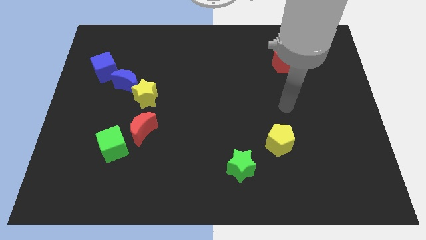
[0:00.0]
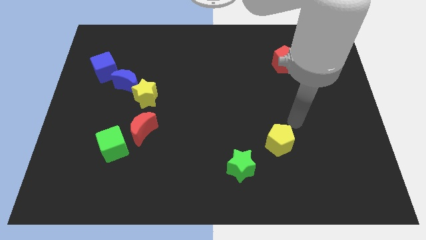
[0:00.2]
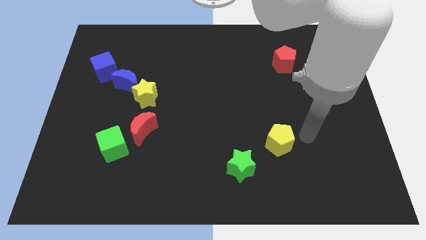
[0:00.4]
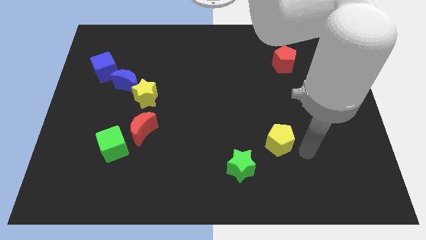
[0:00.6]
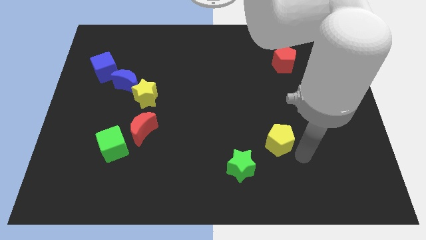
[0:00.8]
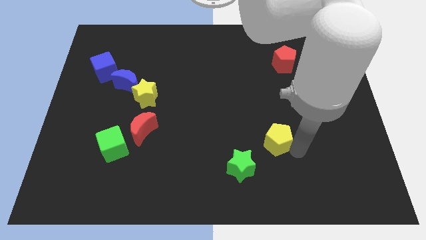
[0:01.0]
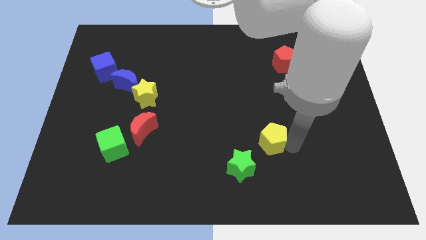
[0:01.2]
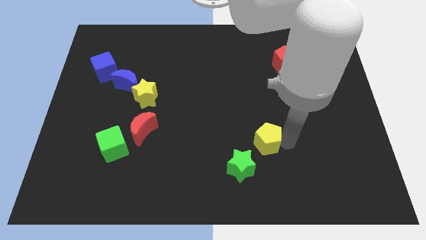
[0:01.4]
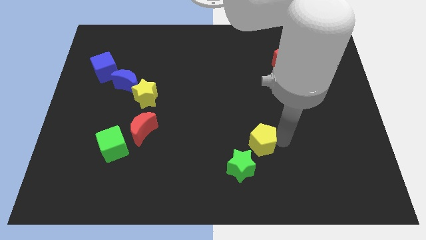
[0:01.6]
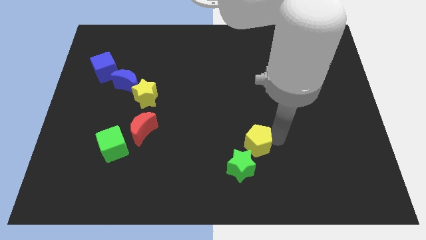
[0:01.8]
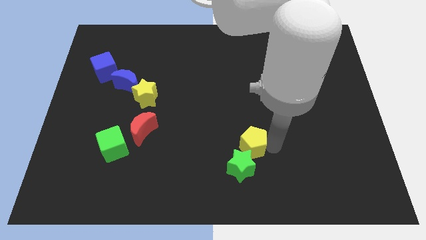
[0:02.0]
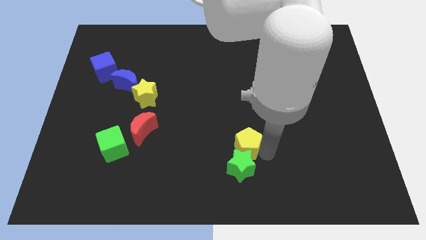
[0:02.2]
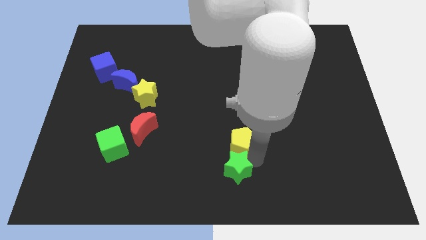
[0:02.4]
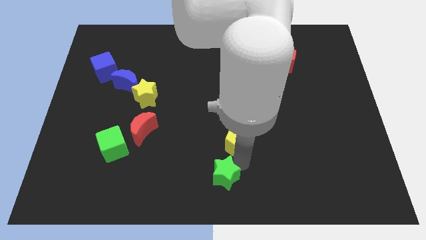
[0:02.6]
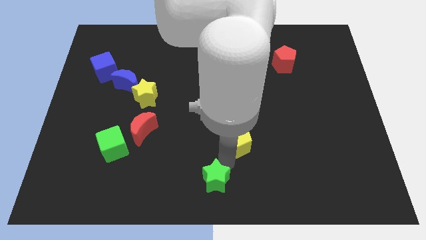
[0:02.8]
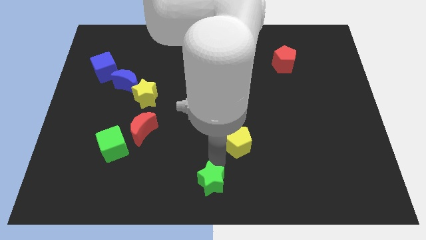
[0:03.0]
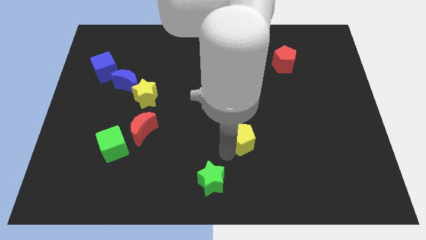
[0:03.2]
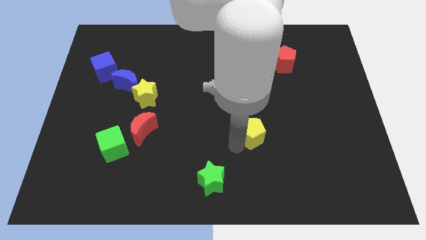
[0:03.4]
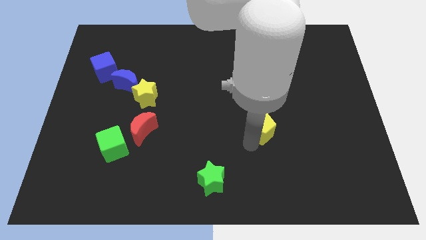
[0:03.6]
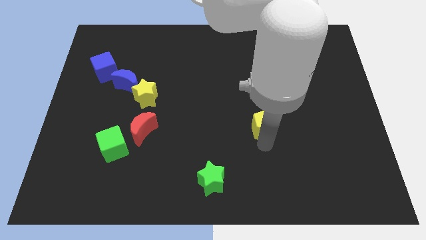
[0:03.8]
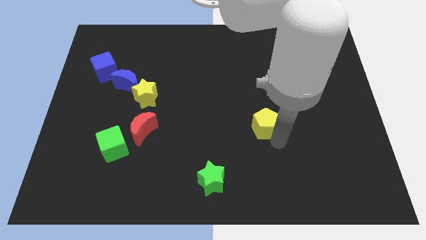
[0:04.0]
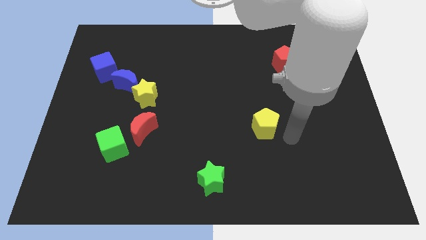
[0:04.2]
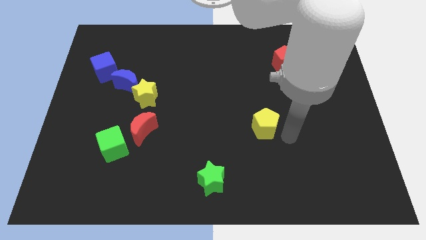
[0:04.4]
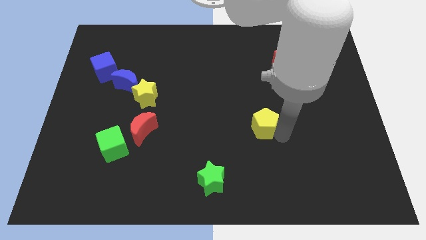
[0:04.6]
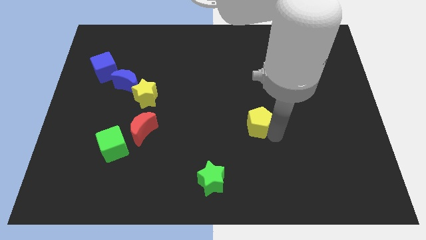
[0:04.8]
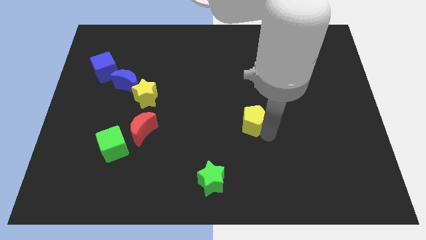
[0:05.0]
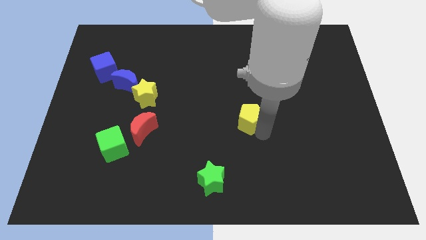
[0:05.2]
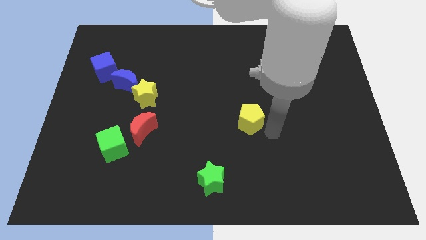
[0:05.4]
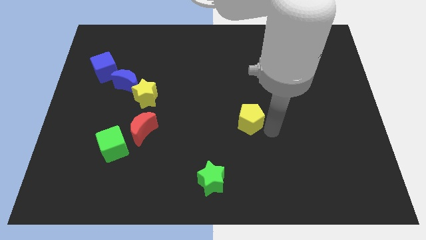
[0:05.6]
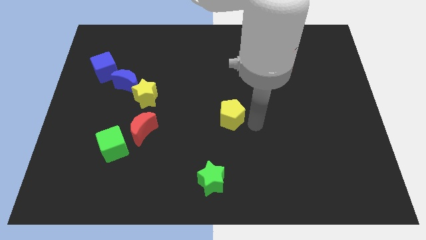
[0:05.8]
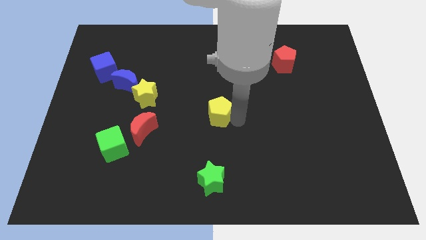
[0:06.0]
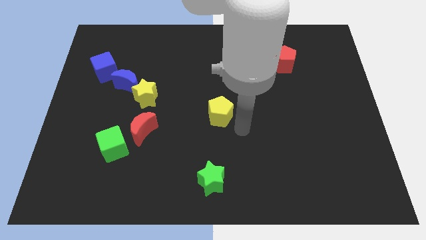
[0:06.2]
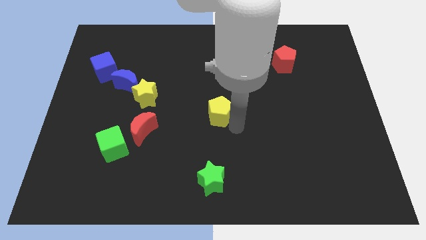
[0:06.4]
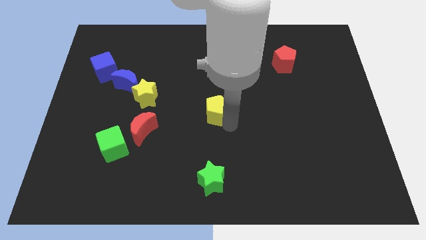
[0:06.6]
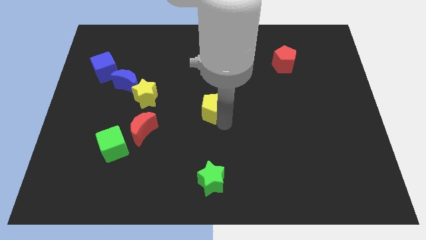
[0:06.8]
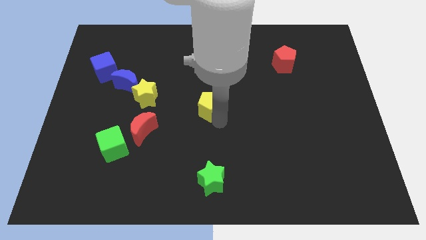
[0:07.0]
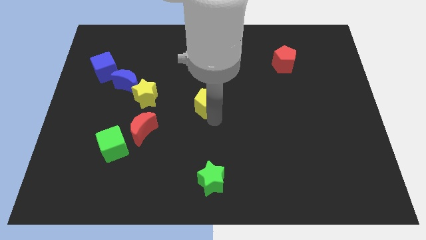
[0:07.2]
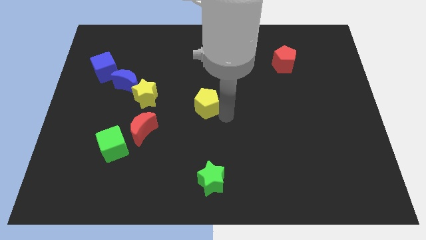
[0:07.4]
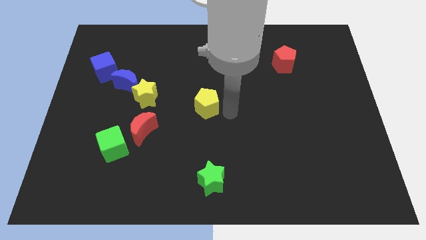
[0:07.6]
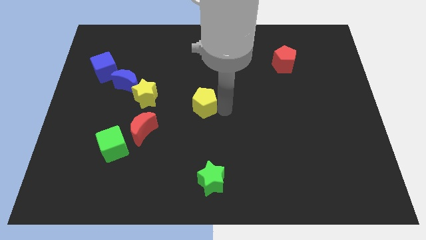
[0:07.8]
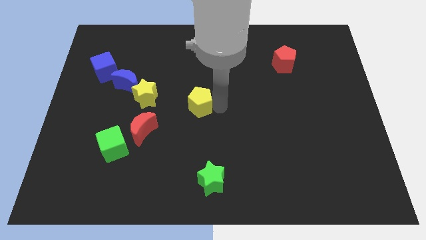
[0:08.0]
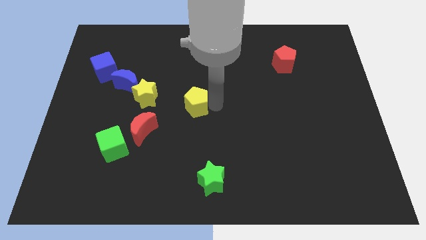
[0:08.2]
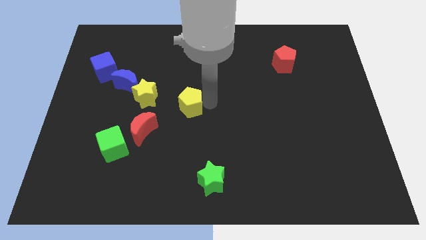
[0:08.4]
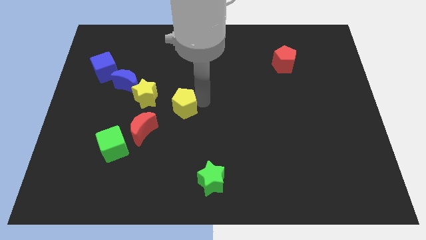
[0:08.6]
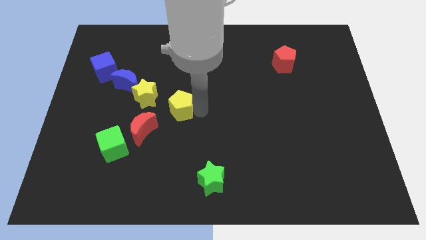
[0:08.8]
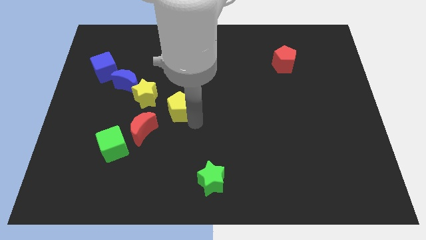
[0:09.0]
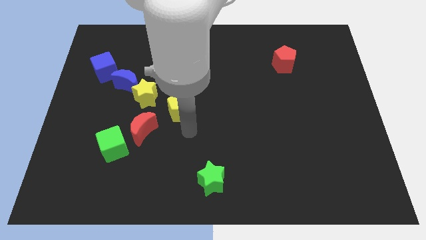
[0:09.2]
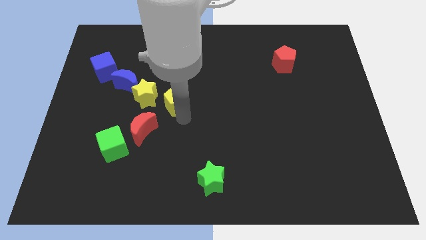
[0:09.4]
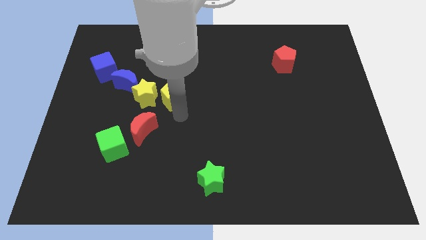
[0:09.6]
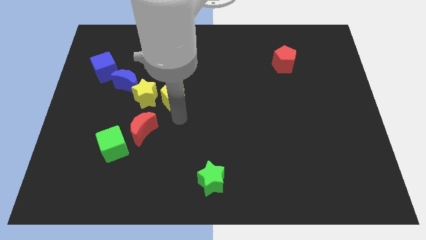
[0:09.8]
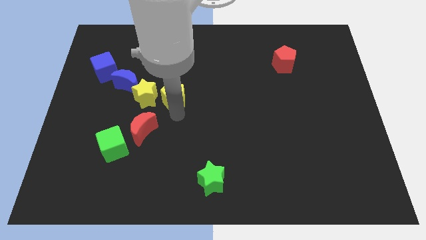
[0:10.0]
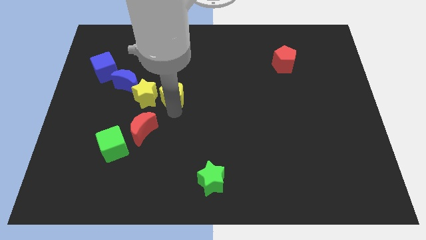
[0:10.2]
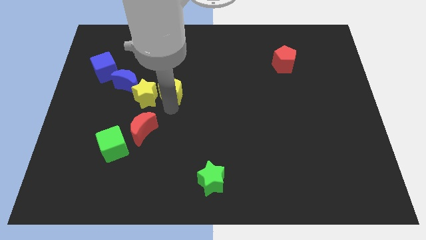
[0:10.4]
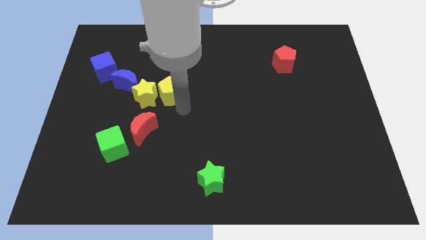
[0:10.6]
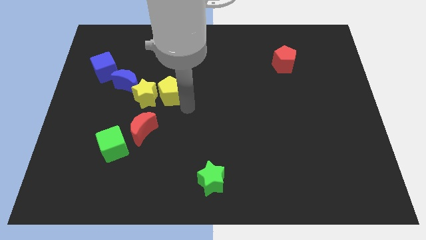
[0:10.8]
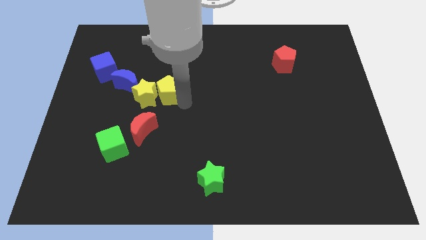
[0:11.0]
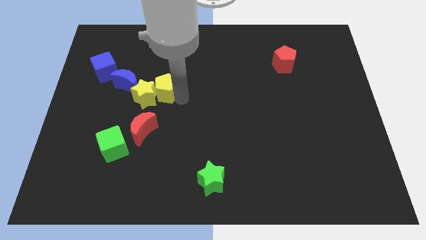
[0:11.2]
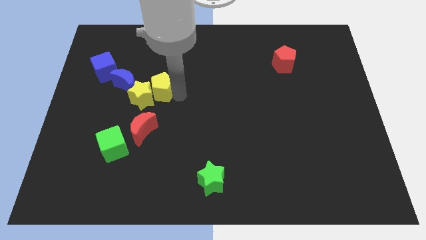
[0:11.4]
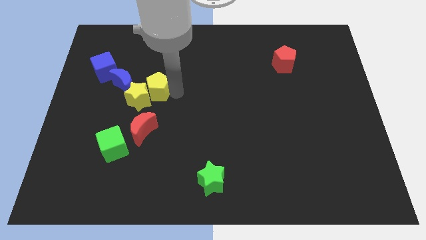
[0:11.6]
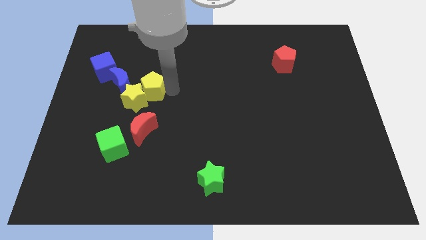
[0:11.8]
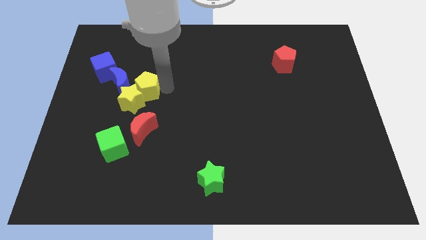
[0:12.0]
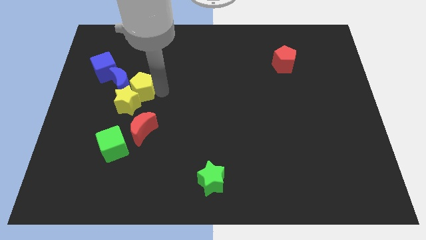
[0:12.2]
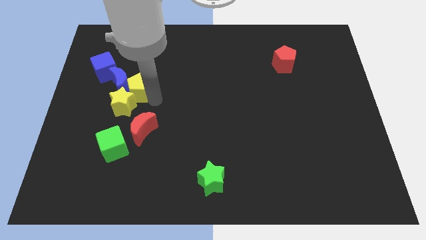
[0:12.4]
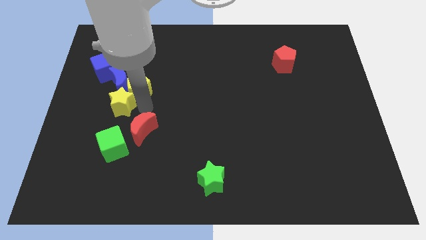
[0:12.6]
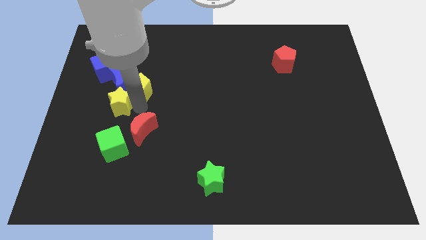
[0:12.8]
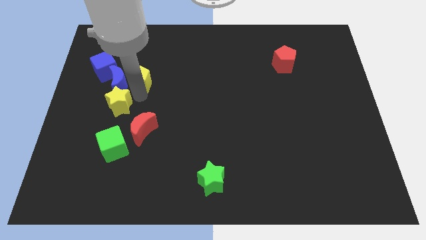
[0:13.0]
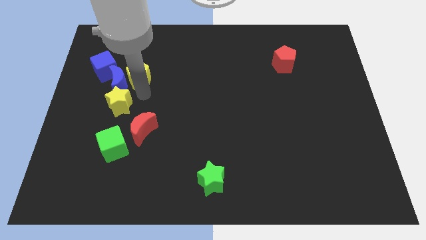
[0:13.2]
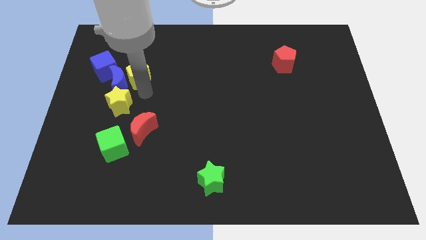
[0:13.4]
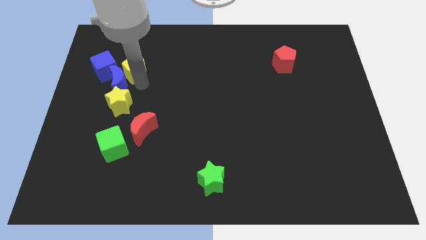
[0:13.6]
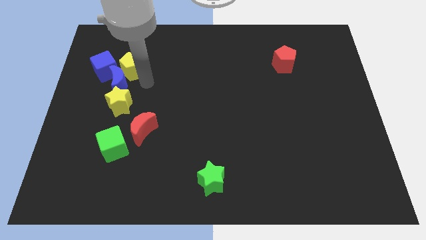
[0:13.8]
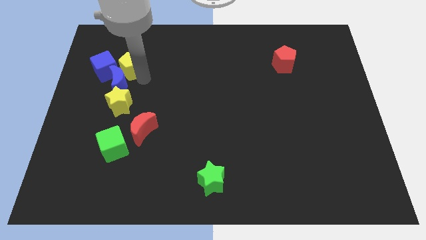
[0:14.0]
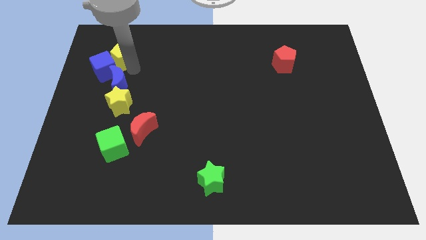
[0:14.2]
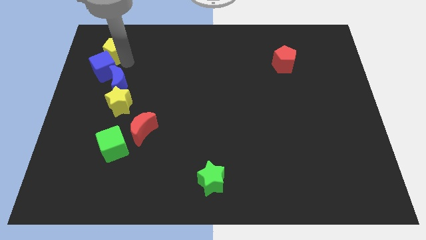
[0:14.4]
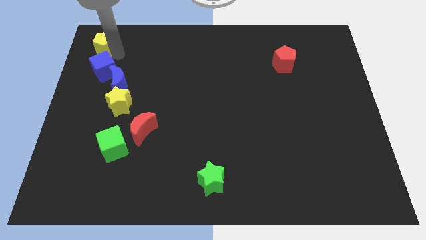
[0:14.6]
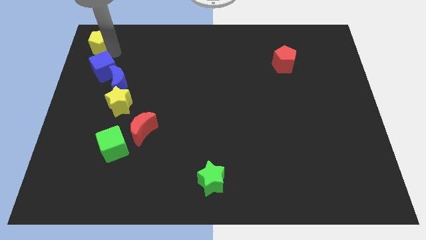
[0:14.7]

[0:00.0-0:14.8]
slide the yellow pentagon to the top left
